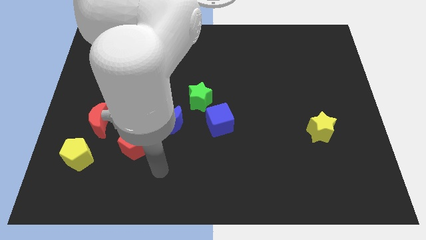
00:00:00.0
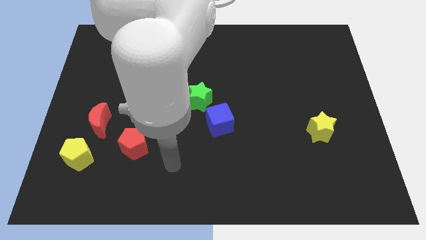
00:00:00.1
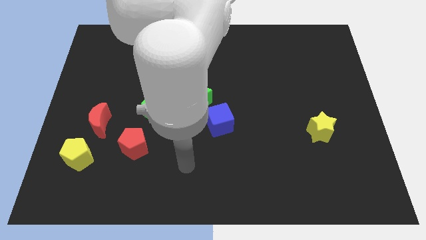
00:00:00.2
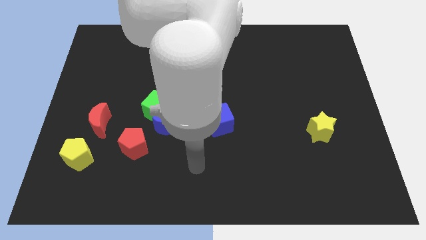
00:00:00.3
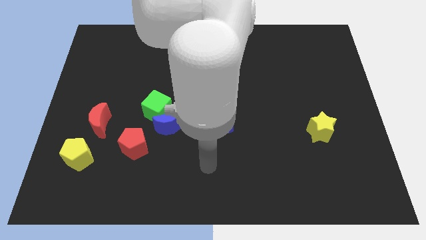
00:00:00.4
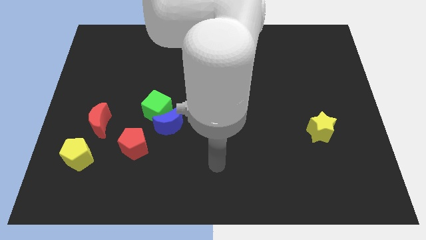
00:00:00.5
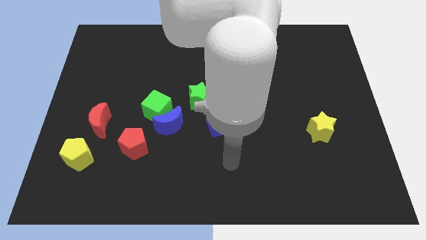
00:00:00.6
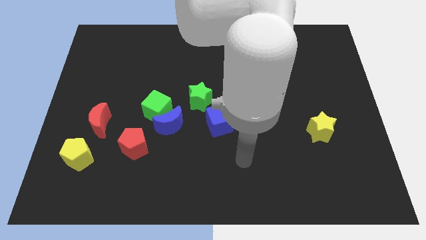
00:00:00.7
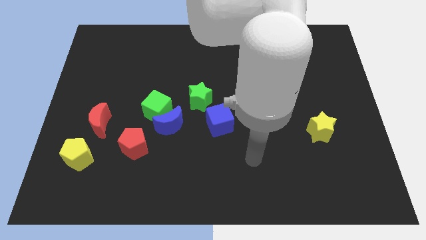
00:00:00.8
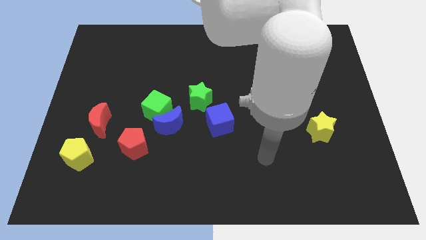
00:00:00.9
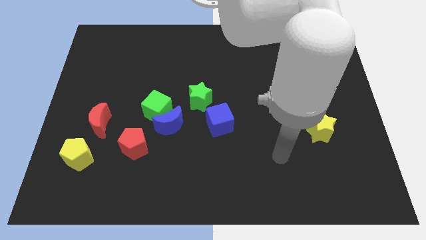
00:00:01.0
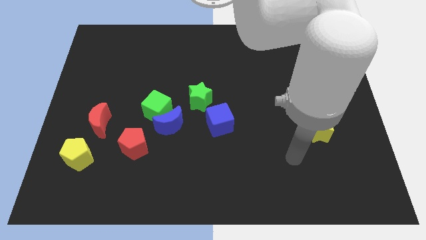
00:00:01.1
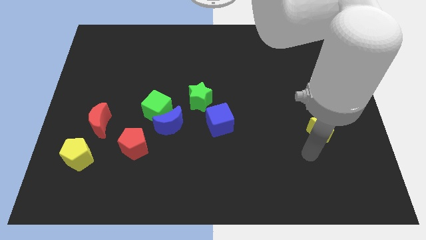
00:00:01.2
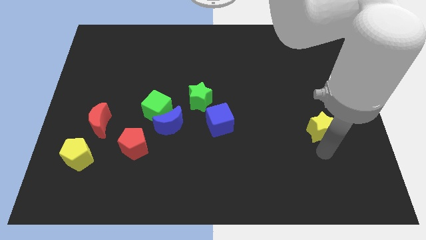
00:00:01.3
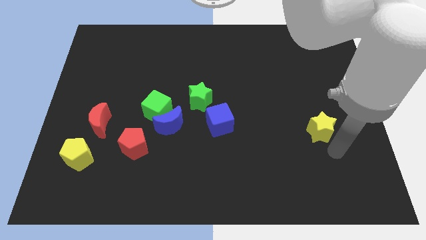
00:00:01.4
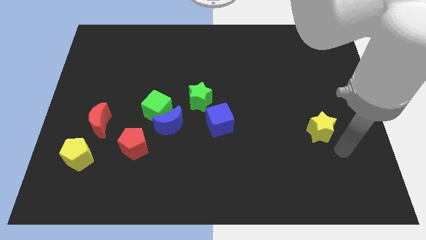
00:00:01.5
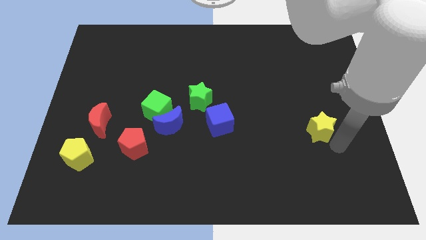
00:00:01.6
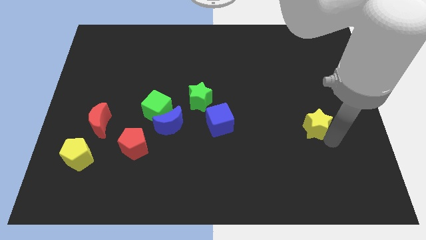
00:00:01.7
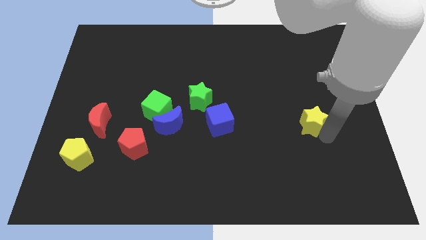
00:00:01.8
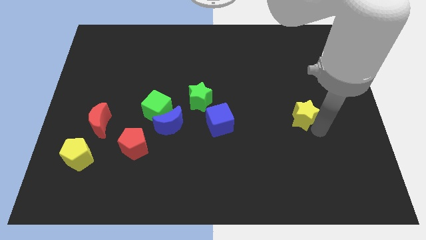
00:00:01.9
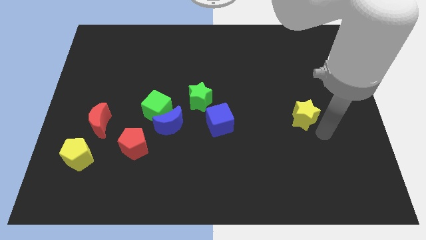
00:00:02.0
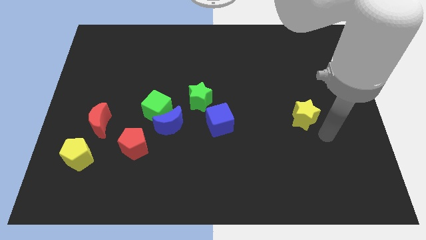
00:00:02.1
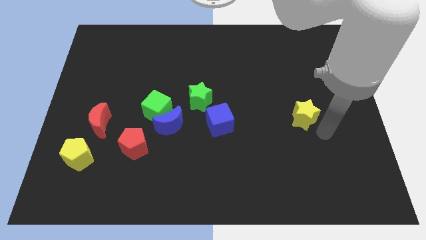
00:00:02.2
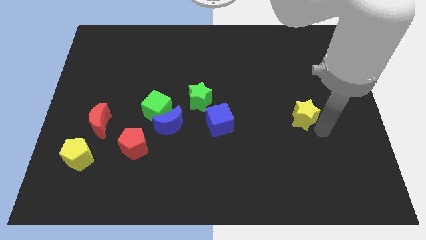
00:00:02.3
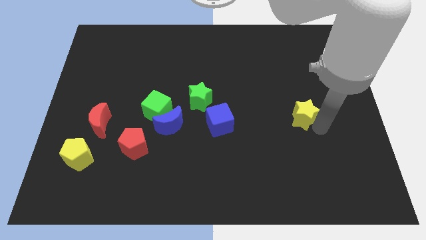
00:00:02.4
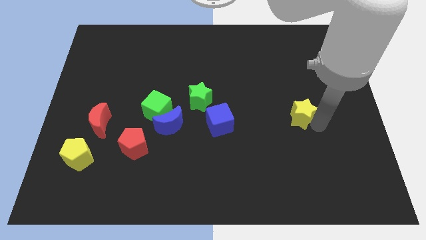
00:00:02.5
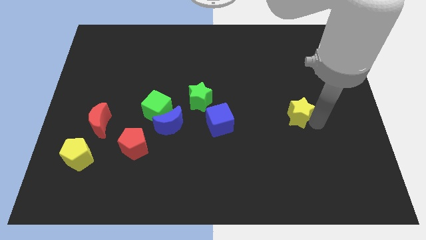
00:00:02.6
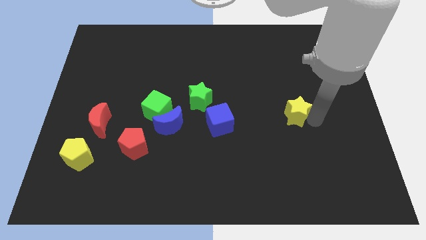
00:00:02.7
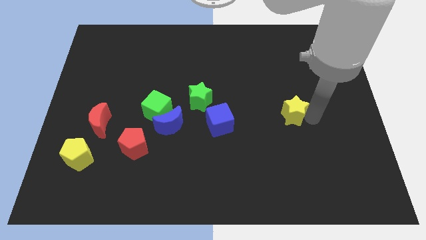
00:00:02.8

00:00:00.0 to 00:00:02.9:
slightly move the yellow star upwards and left diagonally

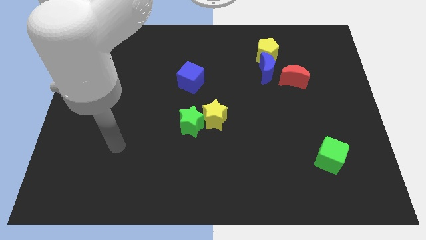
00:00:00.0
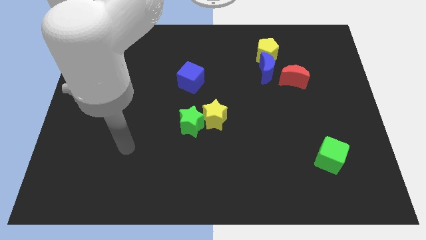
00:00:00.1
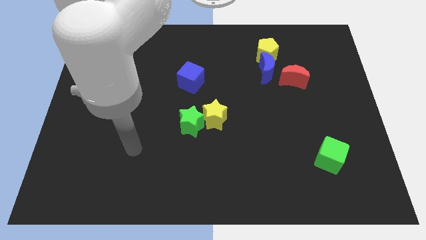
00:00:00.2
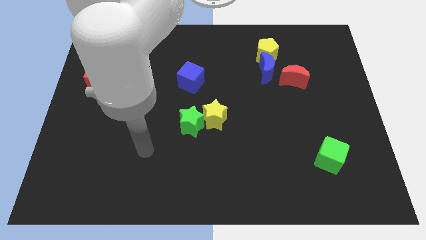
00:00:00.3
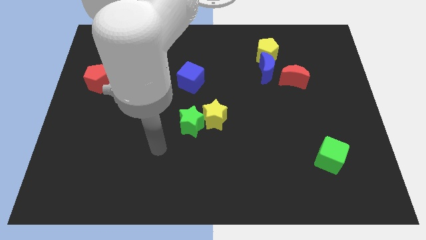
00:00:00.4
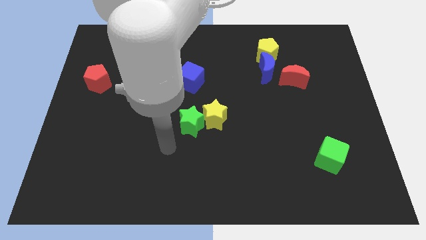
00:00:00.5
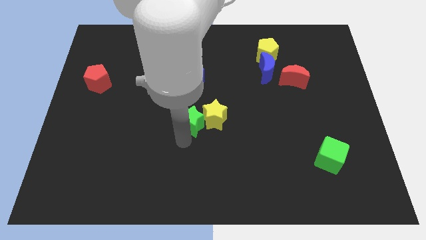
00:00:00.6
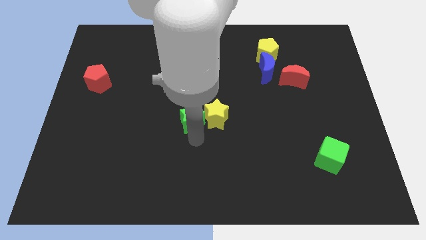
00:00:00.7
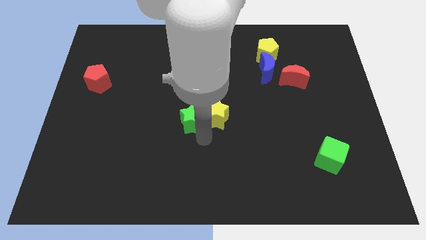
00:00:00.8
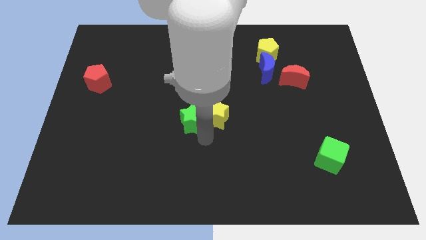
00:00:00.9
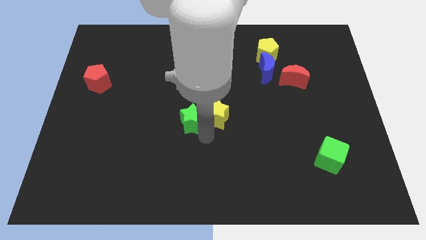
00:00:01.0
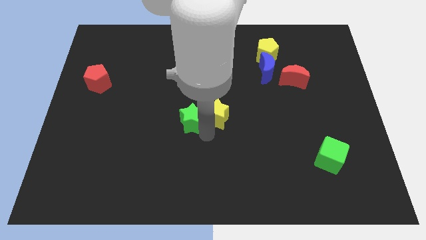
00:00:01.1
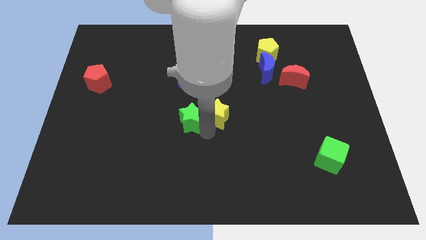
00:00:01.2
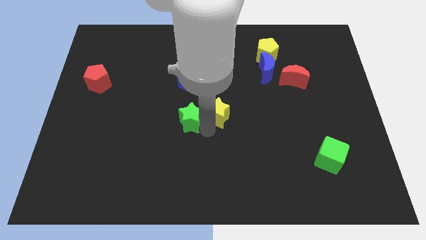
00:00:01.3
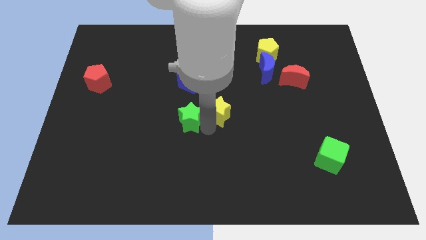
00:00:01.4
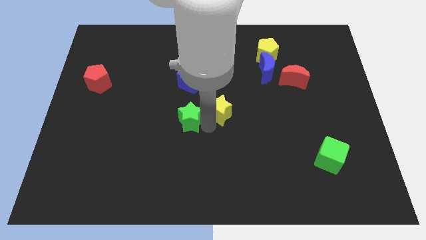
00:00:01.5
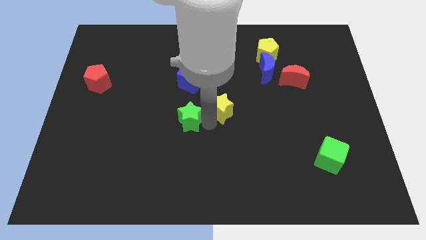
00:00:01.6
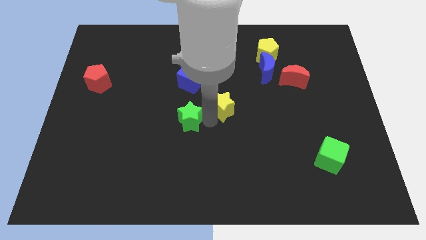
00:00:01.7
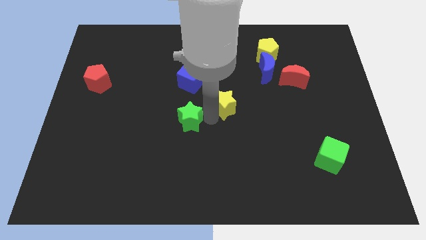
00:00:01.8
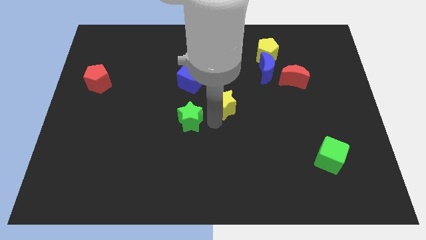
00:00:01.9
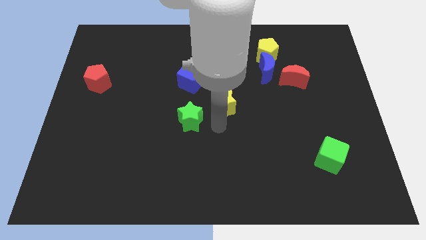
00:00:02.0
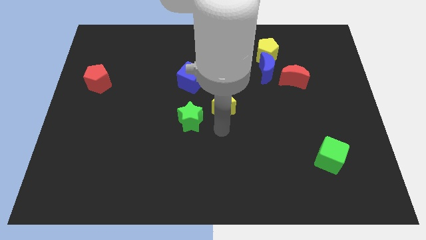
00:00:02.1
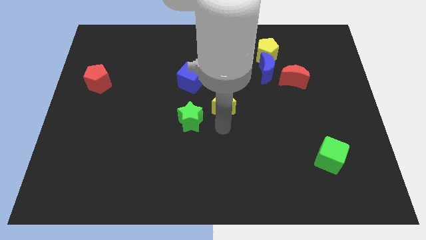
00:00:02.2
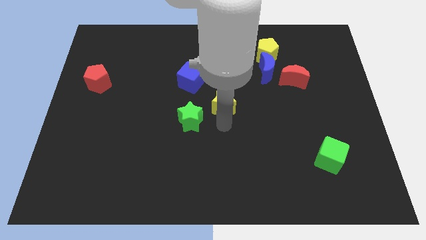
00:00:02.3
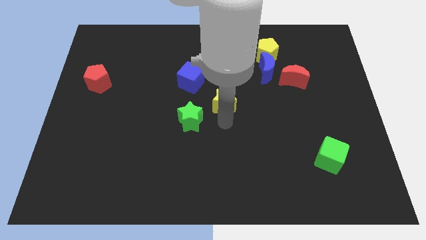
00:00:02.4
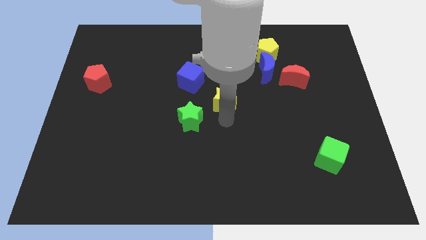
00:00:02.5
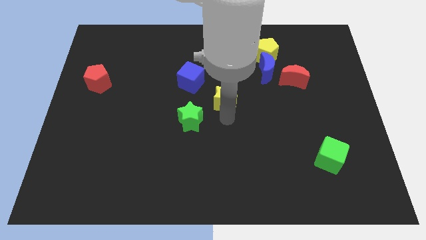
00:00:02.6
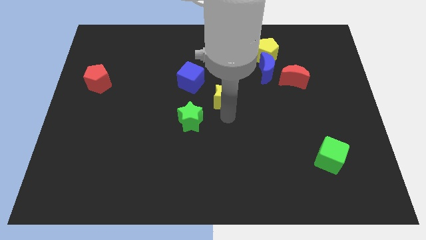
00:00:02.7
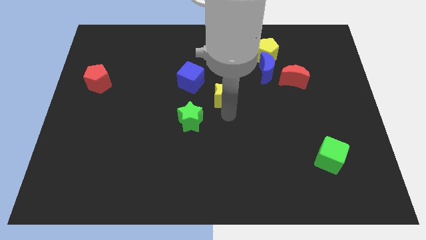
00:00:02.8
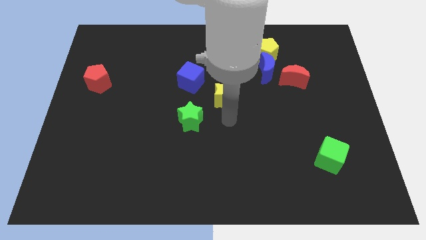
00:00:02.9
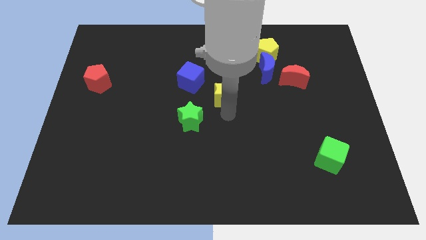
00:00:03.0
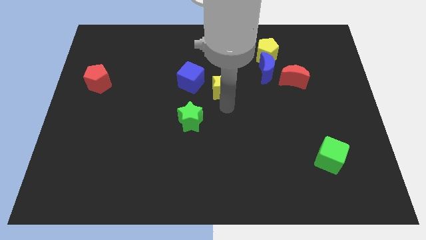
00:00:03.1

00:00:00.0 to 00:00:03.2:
slightly move the yellow star upwards

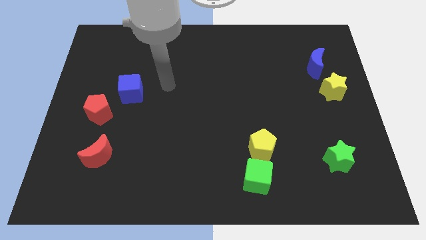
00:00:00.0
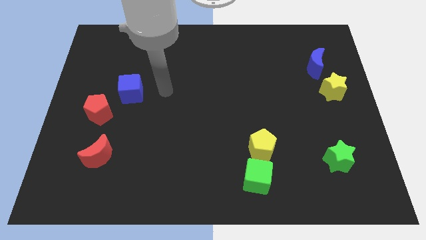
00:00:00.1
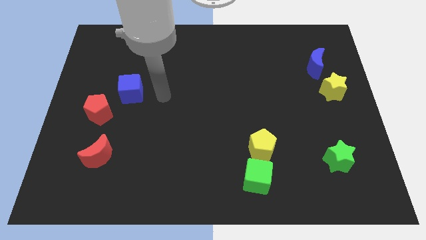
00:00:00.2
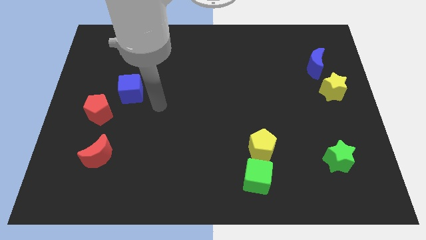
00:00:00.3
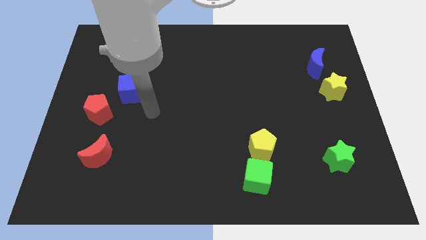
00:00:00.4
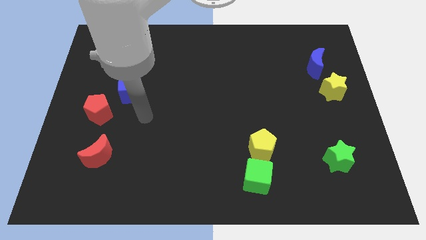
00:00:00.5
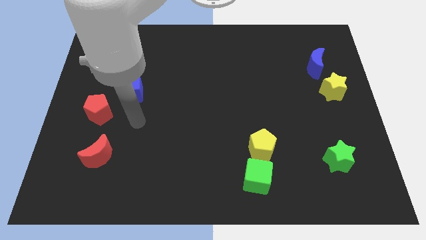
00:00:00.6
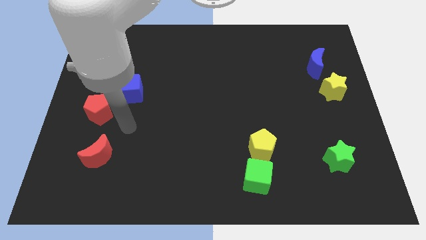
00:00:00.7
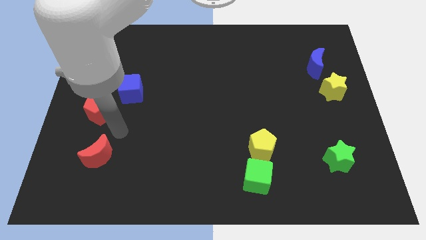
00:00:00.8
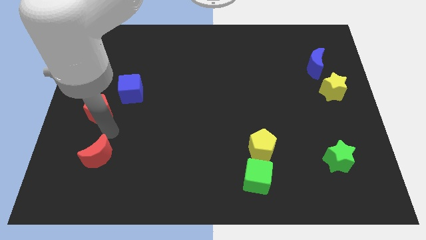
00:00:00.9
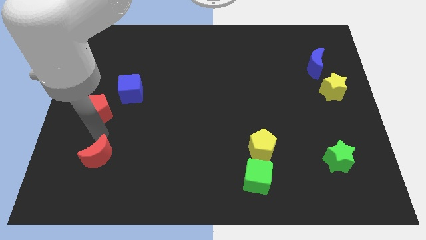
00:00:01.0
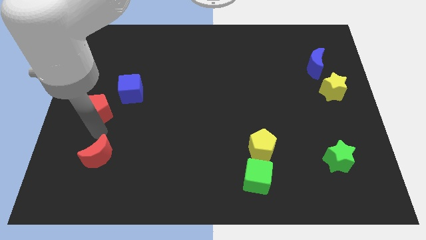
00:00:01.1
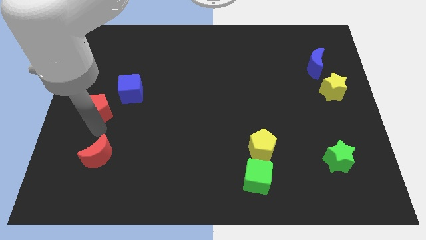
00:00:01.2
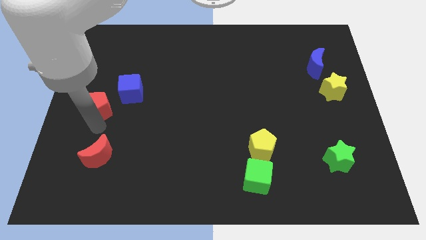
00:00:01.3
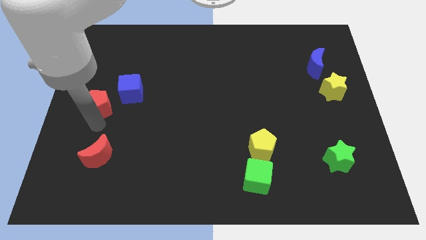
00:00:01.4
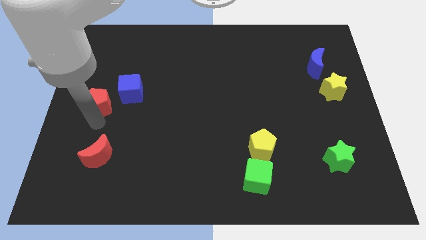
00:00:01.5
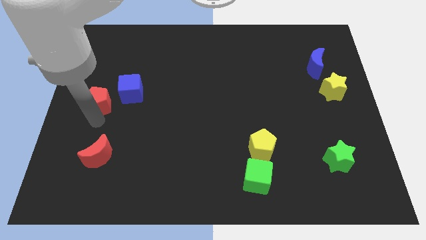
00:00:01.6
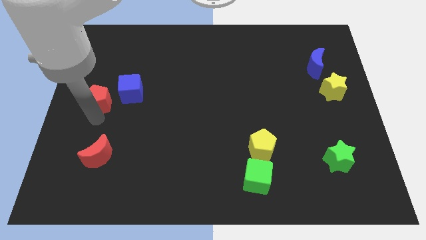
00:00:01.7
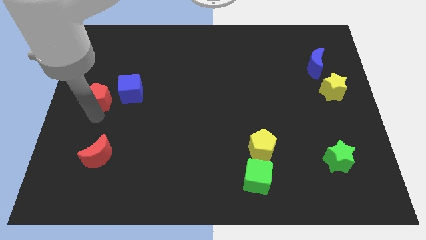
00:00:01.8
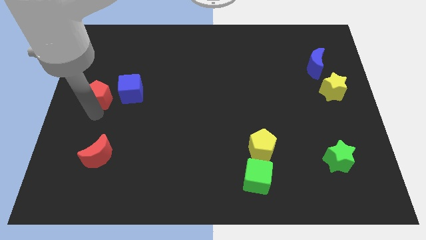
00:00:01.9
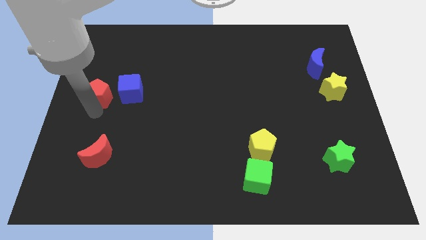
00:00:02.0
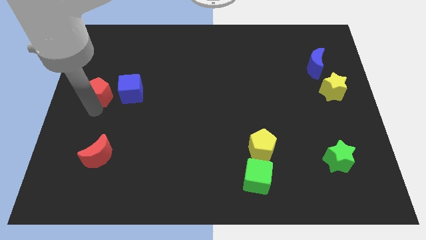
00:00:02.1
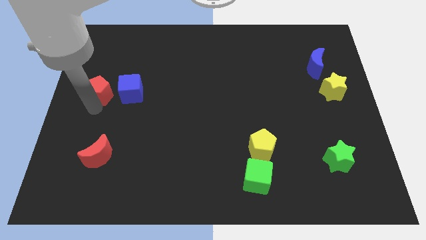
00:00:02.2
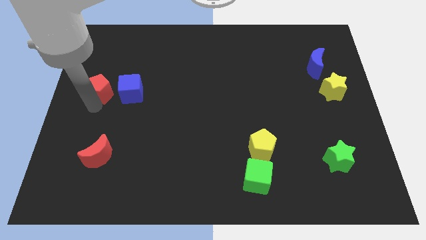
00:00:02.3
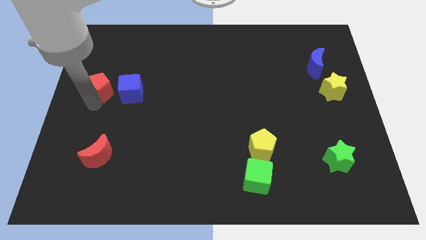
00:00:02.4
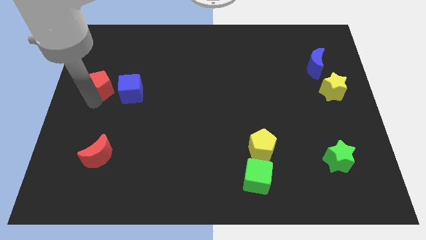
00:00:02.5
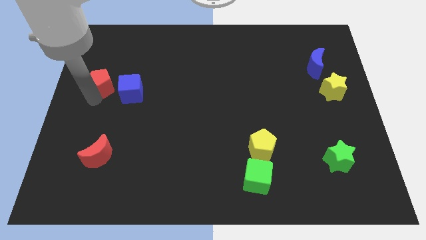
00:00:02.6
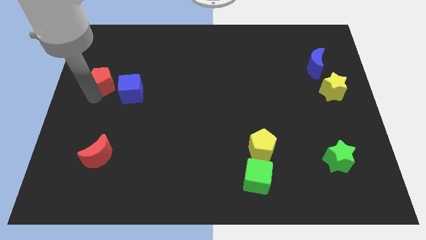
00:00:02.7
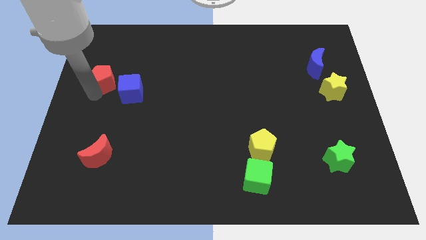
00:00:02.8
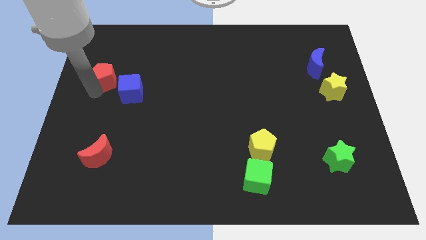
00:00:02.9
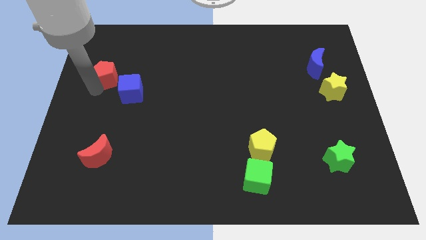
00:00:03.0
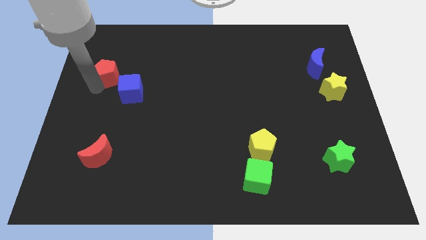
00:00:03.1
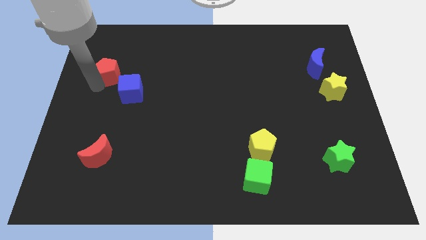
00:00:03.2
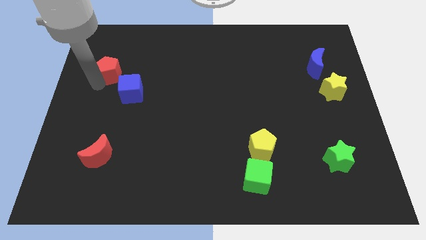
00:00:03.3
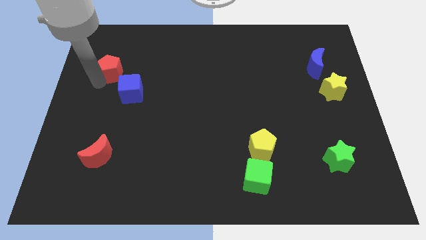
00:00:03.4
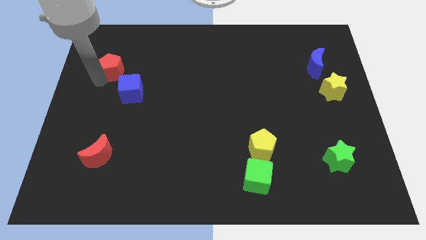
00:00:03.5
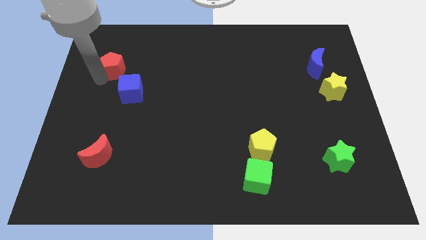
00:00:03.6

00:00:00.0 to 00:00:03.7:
push the red pentagon up and right diagonally a bit
